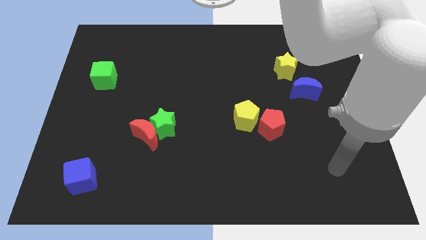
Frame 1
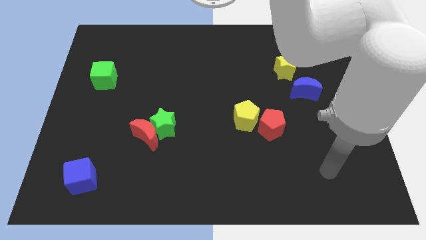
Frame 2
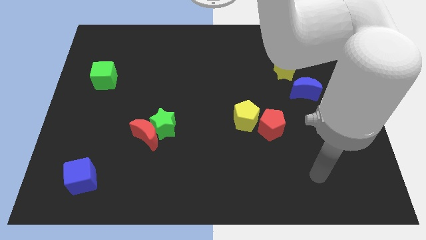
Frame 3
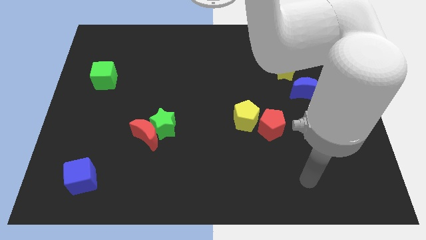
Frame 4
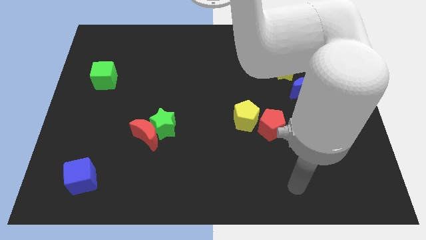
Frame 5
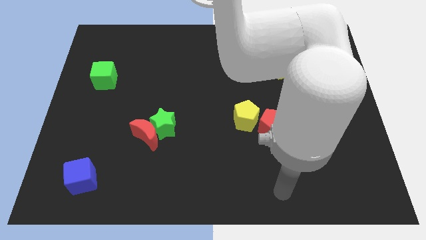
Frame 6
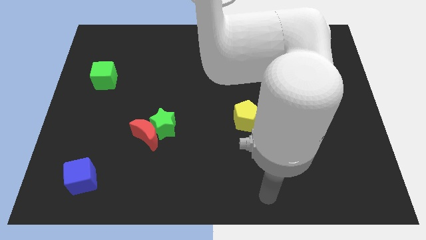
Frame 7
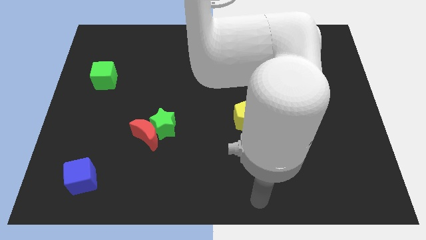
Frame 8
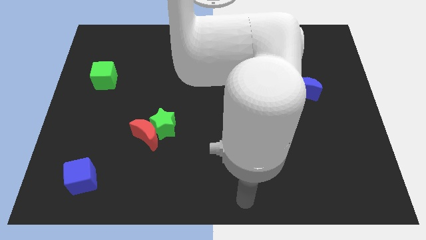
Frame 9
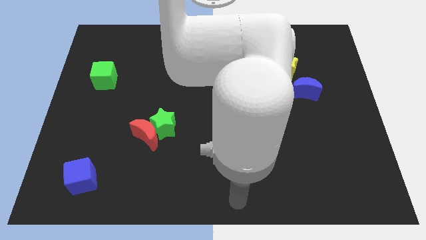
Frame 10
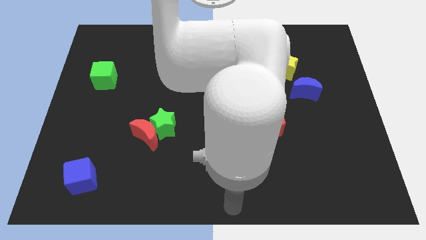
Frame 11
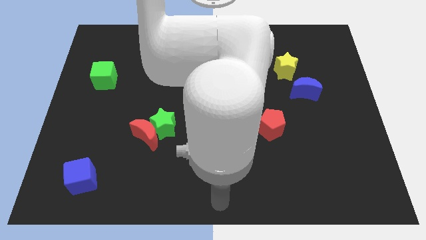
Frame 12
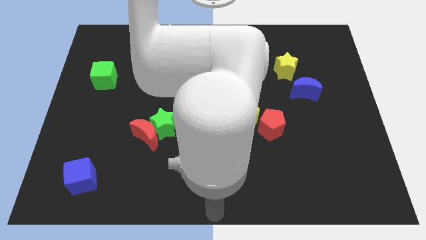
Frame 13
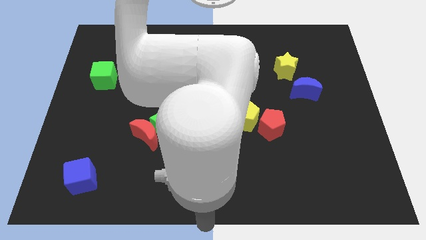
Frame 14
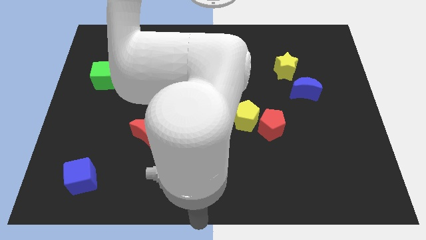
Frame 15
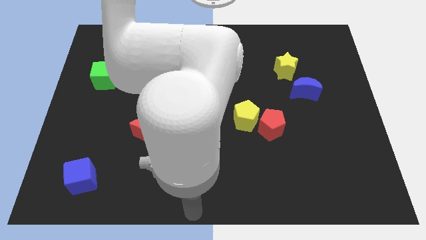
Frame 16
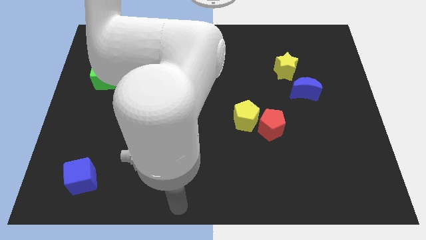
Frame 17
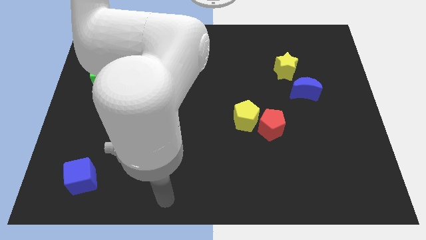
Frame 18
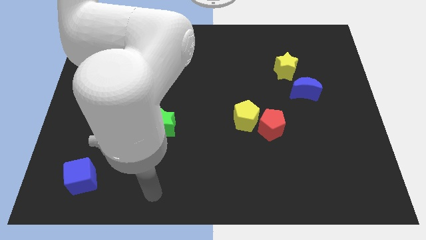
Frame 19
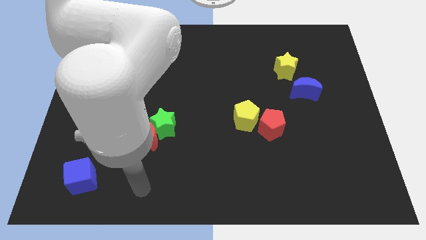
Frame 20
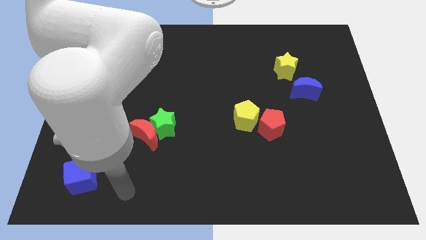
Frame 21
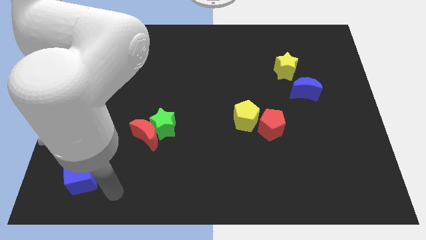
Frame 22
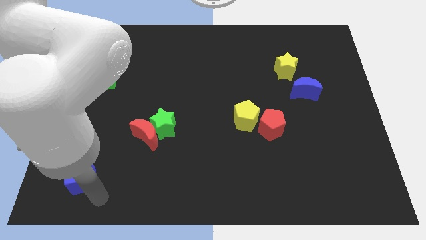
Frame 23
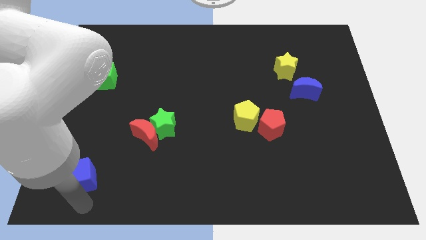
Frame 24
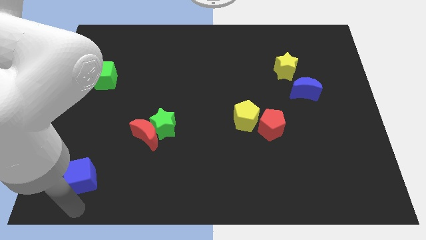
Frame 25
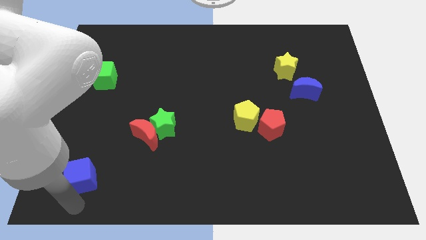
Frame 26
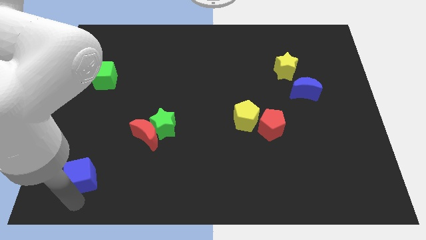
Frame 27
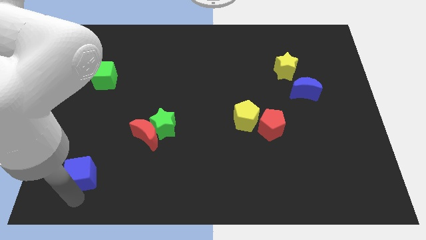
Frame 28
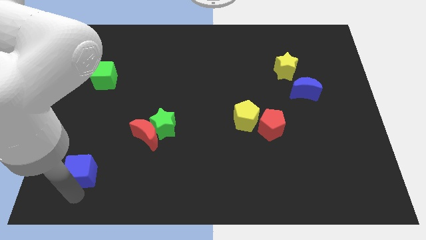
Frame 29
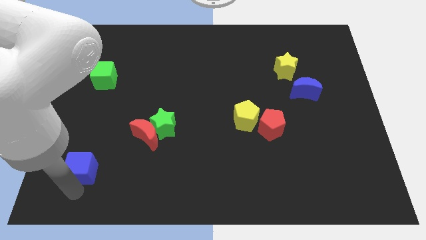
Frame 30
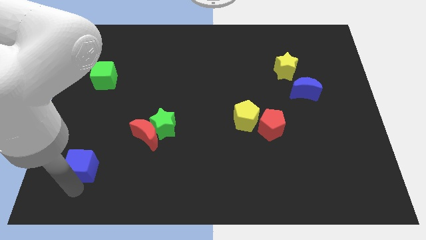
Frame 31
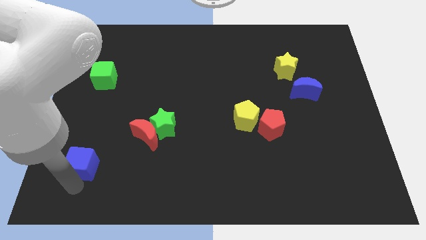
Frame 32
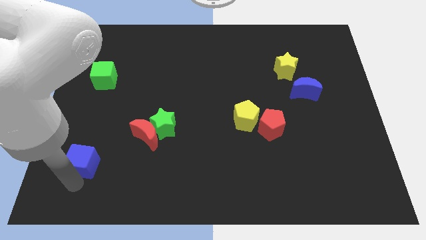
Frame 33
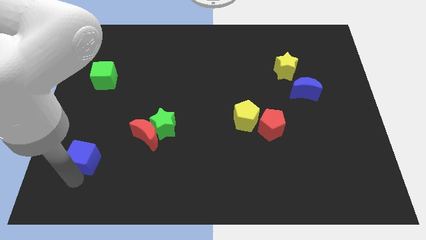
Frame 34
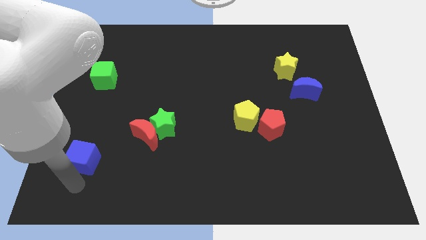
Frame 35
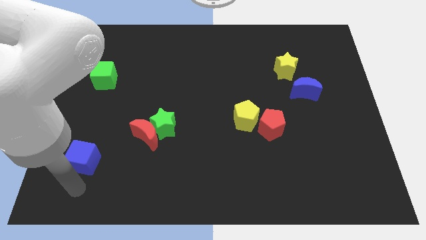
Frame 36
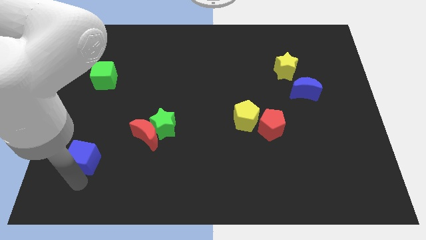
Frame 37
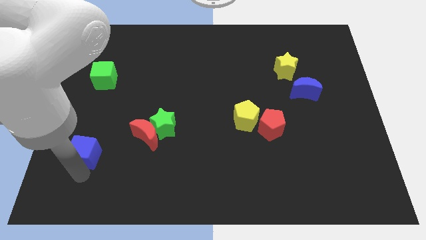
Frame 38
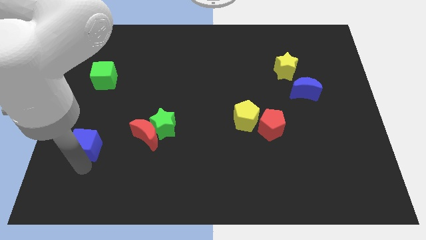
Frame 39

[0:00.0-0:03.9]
slightly push the blue cube upwards

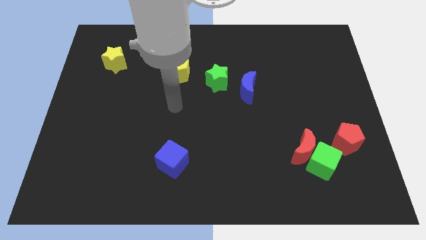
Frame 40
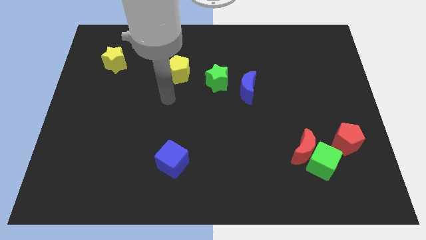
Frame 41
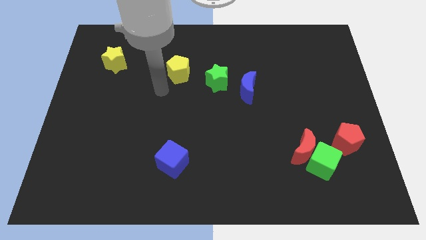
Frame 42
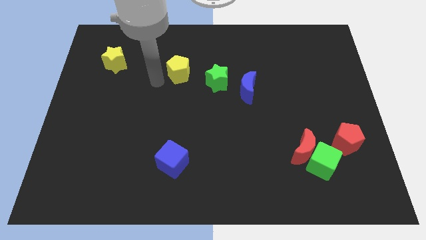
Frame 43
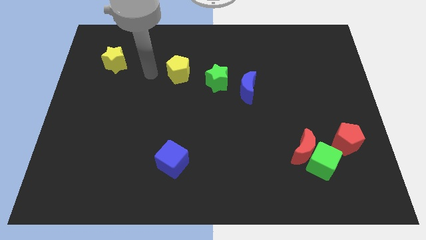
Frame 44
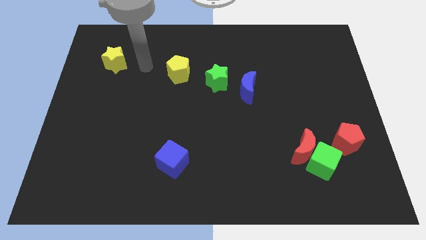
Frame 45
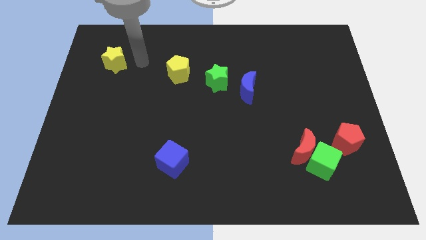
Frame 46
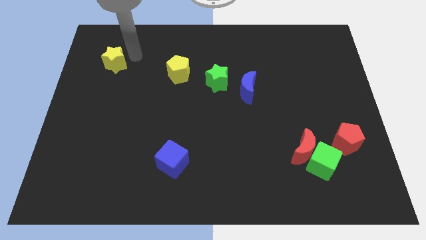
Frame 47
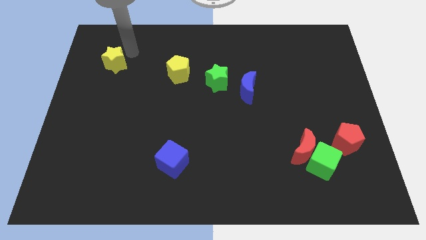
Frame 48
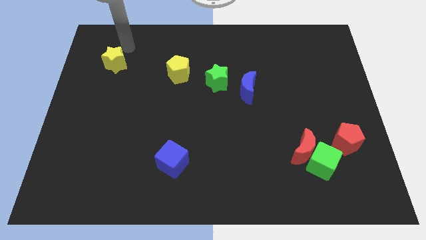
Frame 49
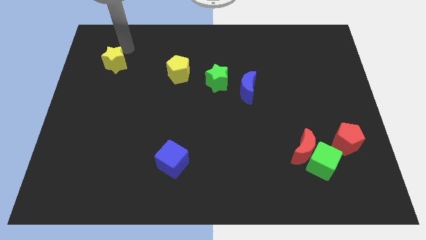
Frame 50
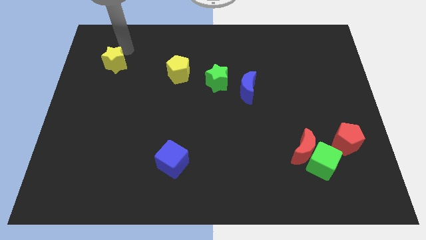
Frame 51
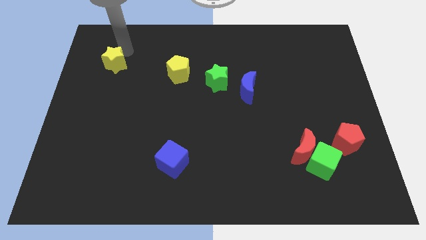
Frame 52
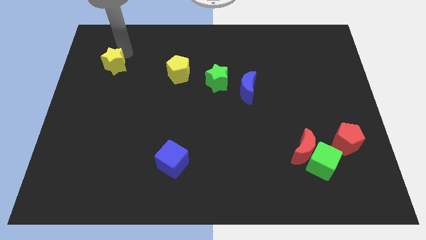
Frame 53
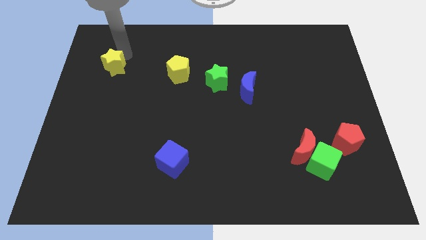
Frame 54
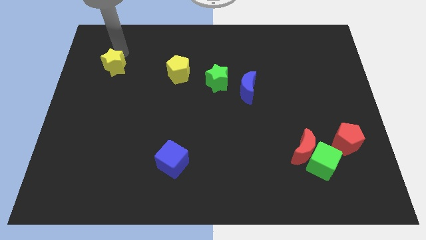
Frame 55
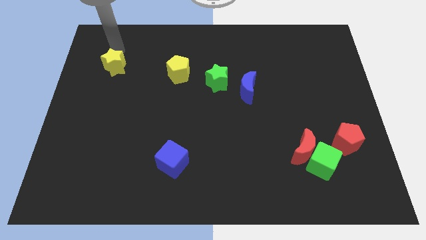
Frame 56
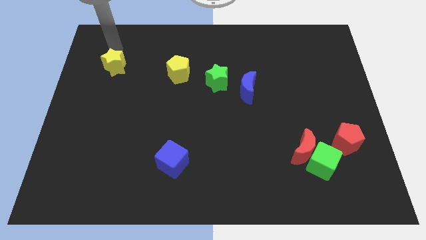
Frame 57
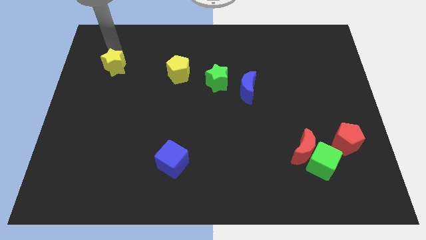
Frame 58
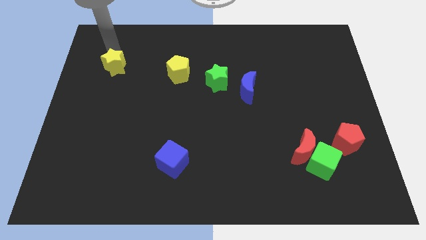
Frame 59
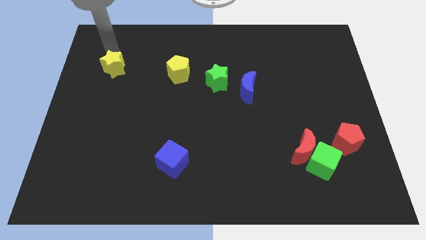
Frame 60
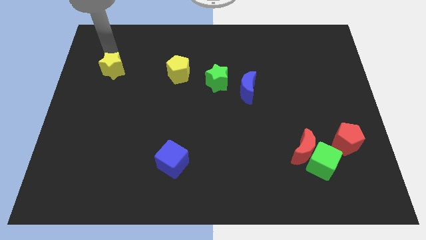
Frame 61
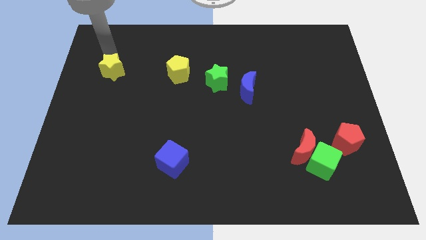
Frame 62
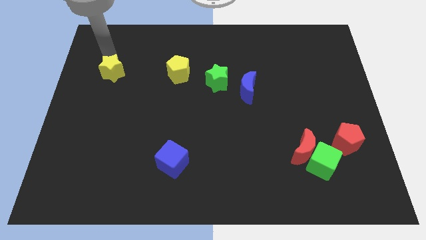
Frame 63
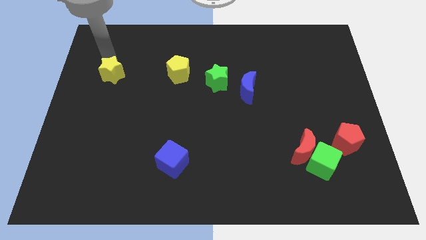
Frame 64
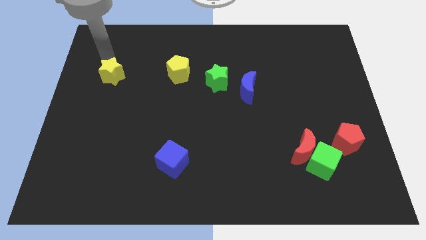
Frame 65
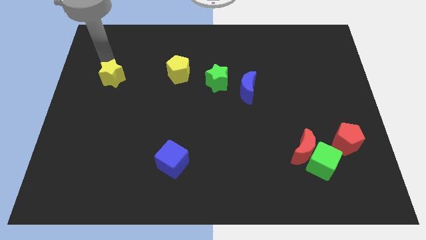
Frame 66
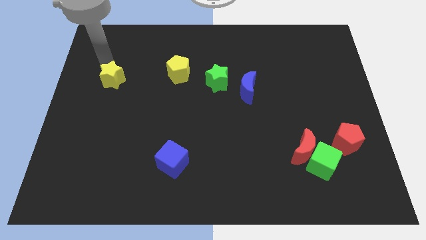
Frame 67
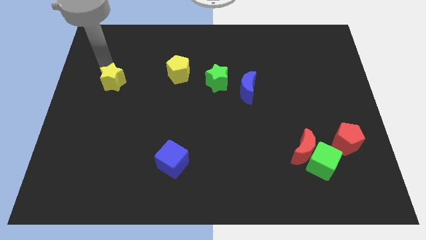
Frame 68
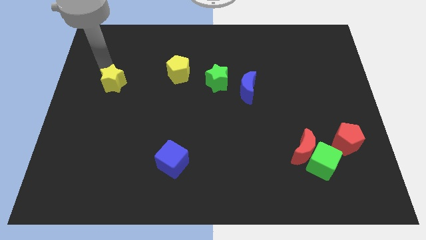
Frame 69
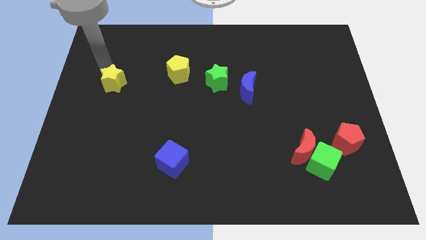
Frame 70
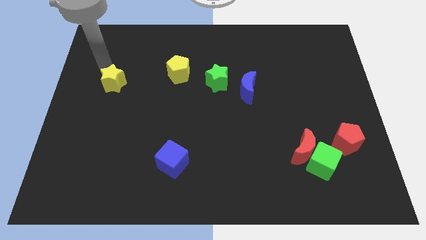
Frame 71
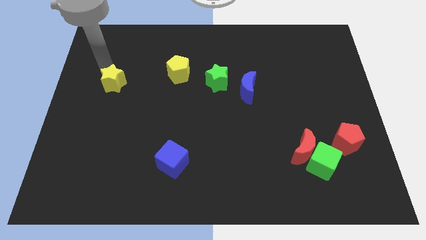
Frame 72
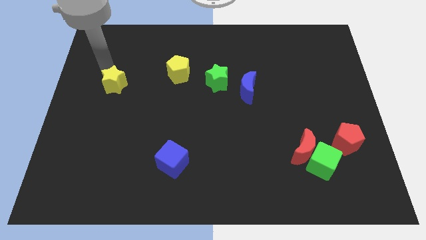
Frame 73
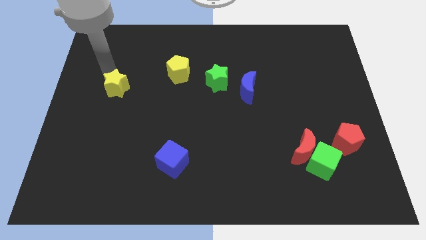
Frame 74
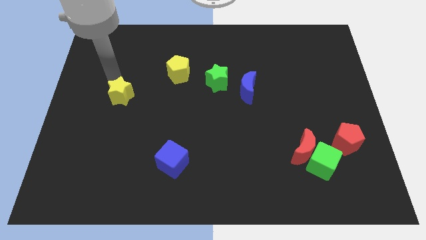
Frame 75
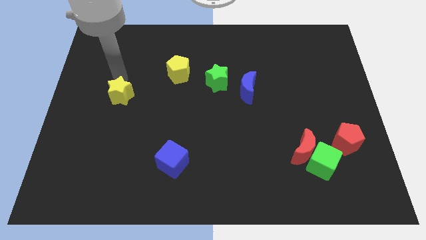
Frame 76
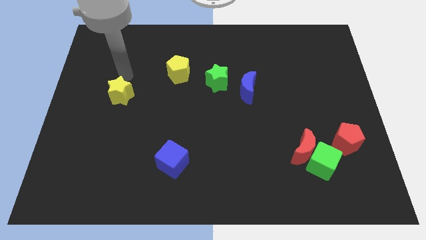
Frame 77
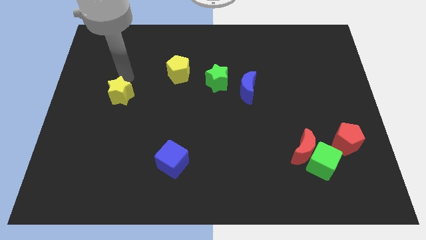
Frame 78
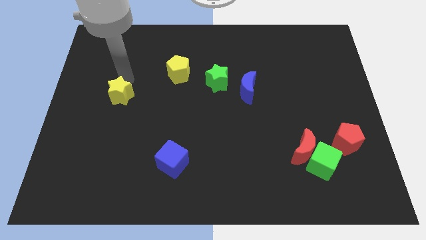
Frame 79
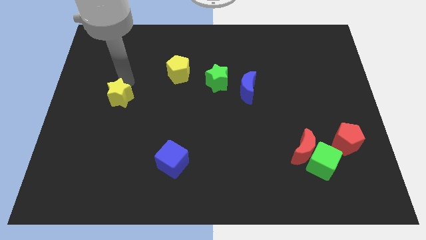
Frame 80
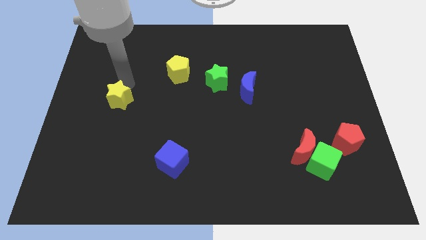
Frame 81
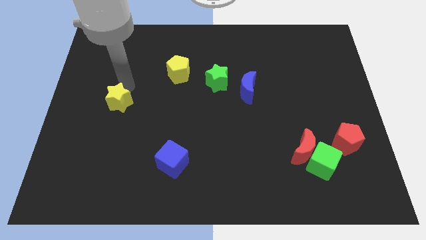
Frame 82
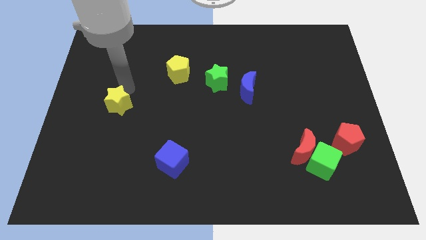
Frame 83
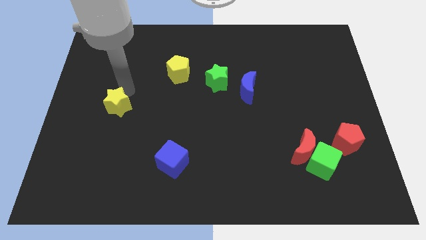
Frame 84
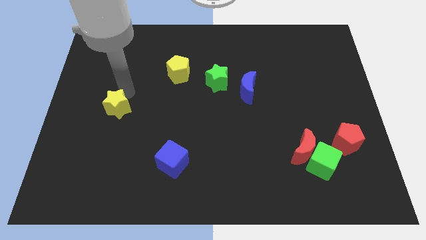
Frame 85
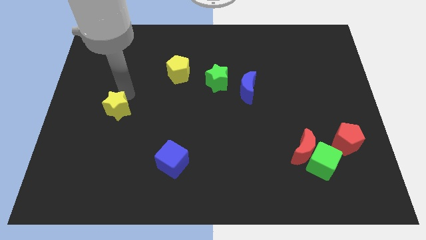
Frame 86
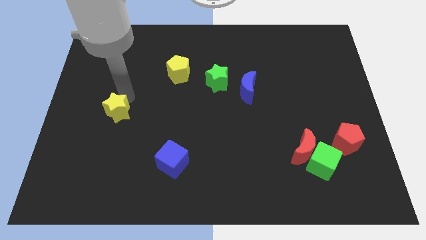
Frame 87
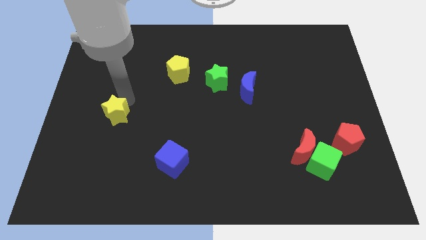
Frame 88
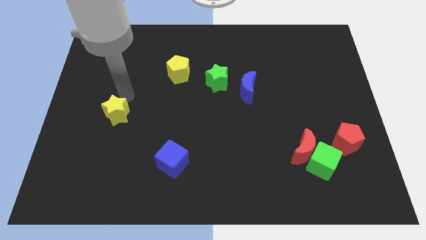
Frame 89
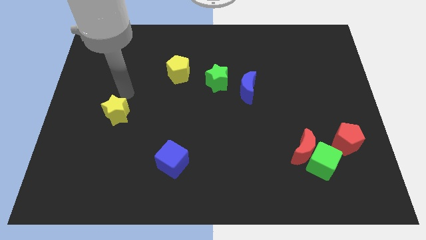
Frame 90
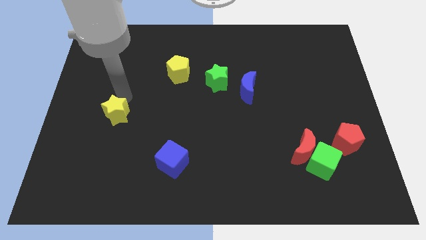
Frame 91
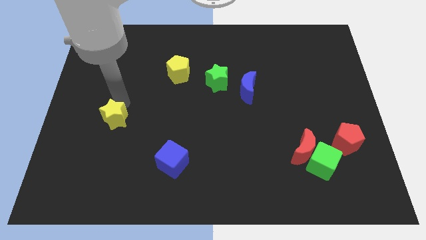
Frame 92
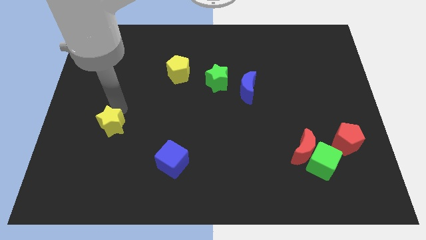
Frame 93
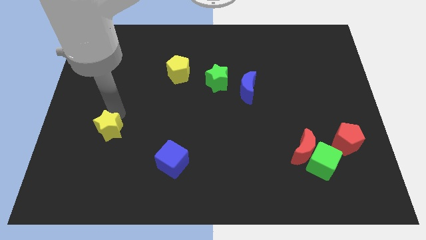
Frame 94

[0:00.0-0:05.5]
push the yellow star down
